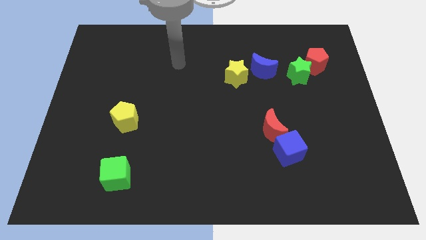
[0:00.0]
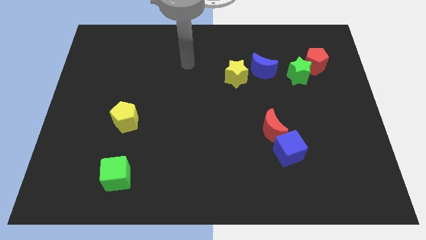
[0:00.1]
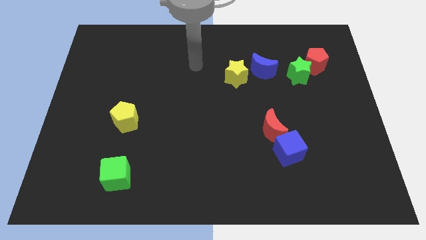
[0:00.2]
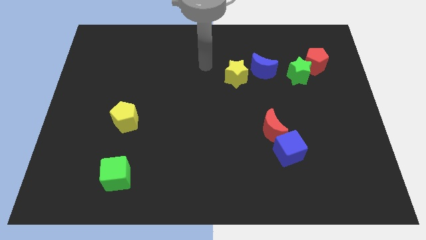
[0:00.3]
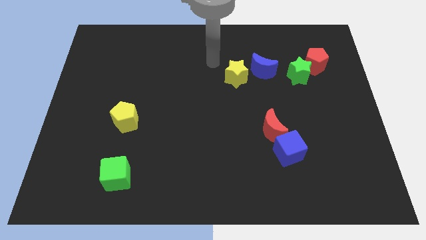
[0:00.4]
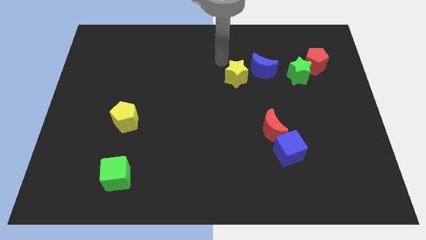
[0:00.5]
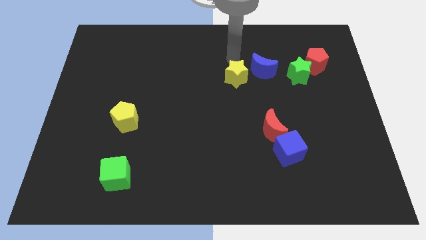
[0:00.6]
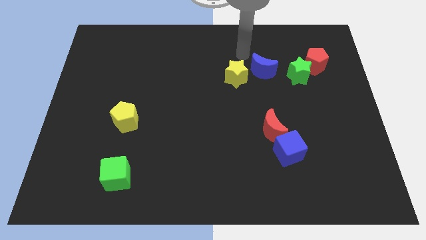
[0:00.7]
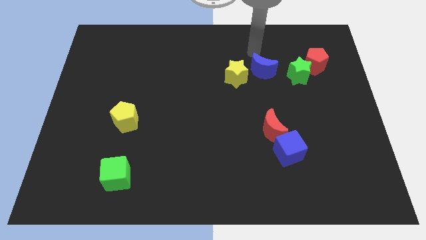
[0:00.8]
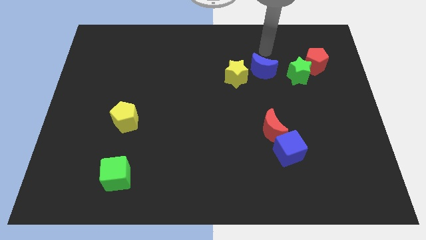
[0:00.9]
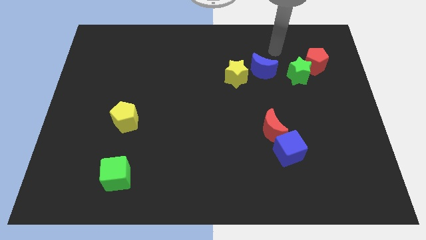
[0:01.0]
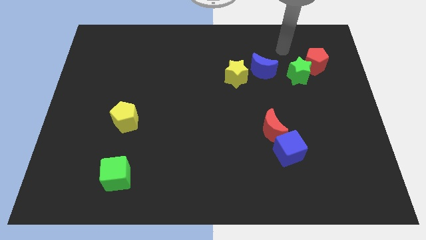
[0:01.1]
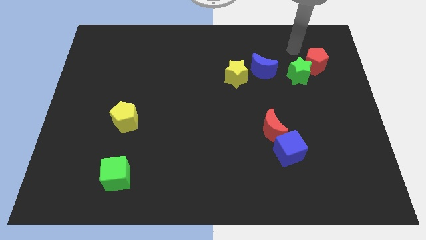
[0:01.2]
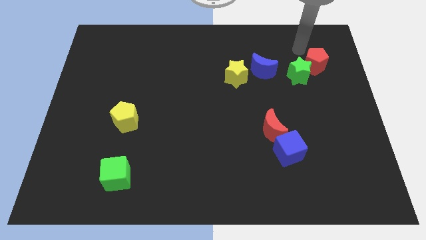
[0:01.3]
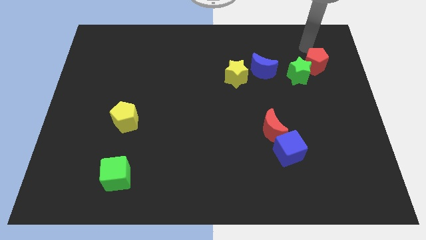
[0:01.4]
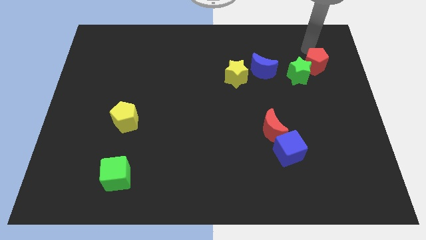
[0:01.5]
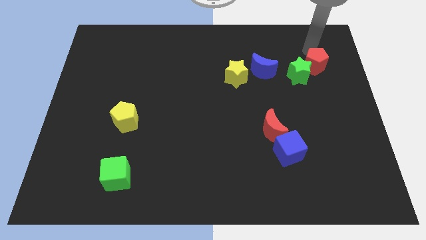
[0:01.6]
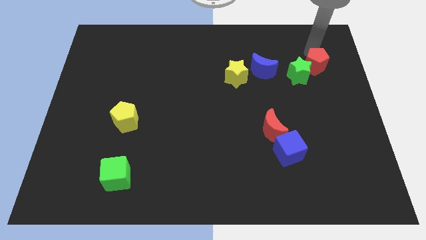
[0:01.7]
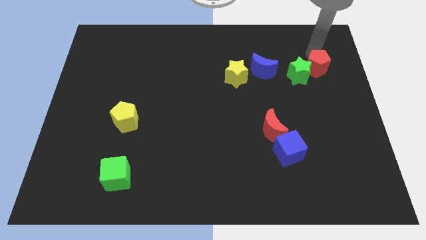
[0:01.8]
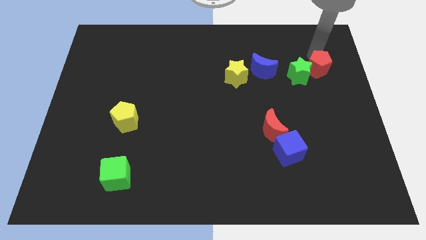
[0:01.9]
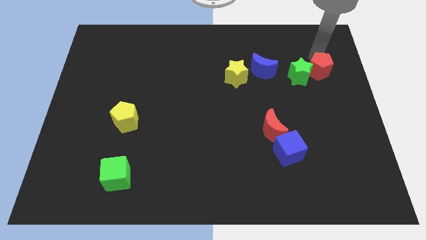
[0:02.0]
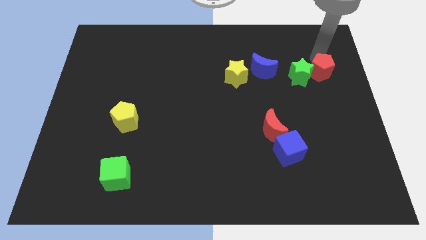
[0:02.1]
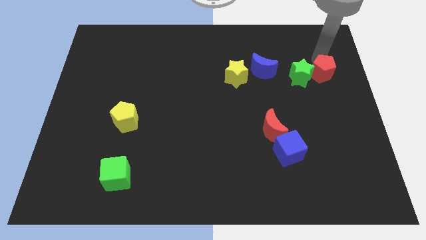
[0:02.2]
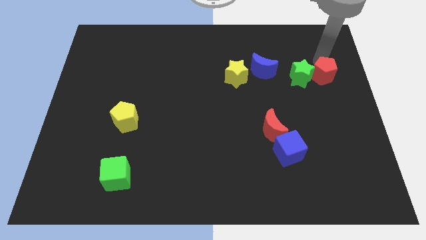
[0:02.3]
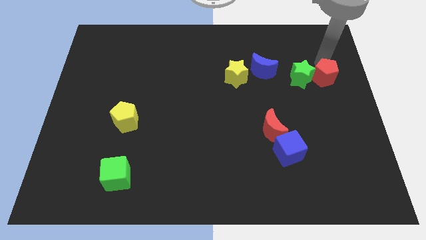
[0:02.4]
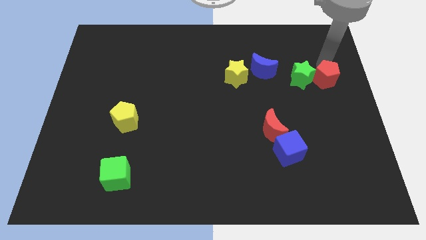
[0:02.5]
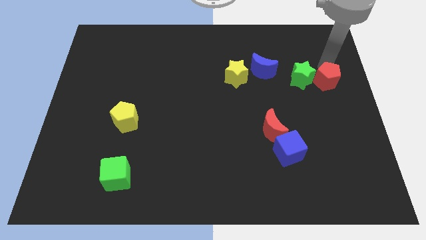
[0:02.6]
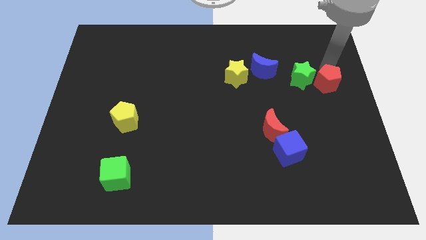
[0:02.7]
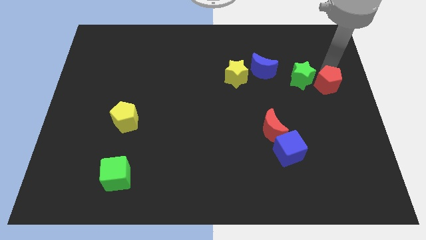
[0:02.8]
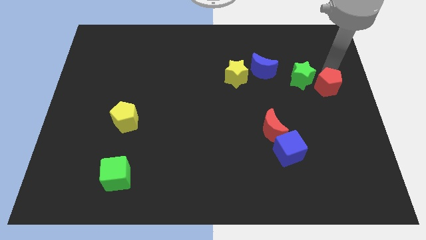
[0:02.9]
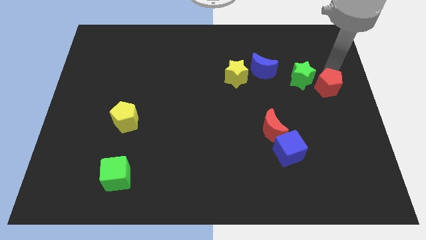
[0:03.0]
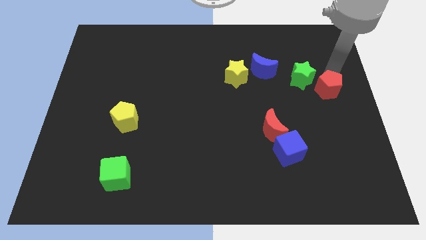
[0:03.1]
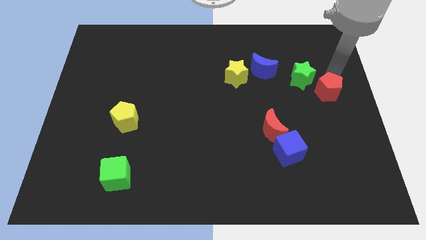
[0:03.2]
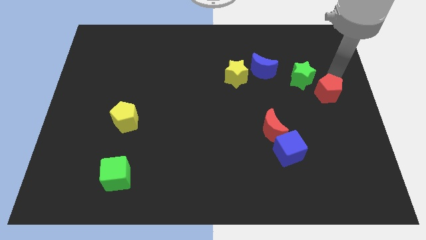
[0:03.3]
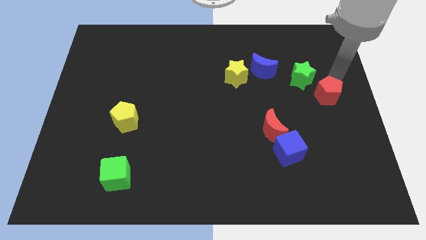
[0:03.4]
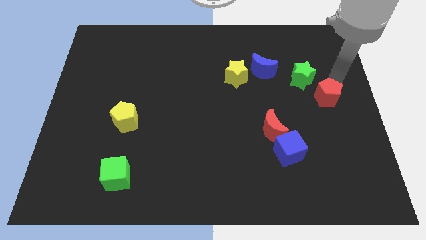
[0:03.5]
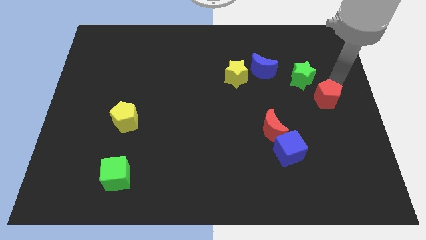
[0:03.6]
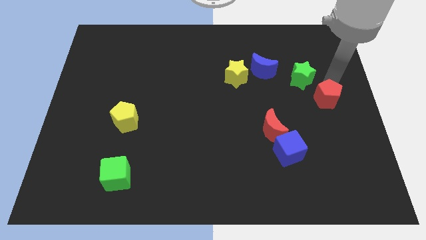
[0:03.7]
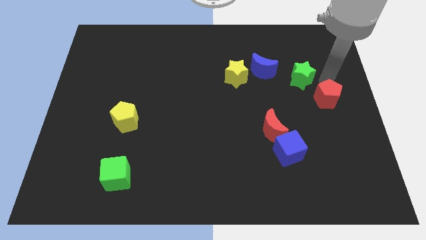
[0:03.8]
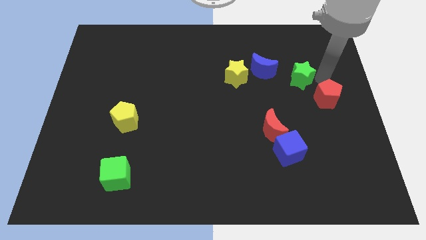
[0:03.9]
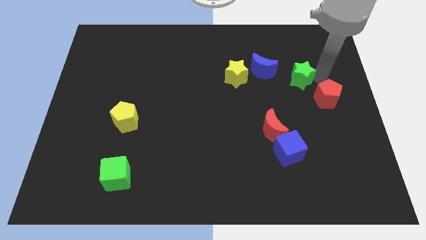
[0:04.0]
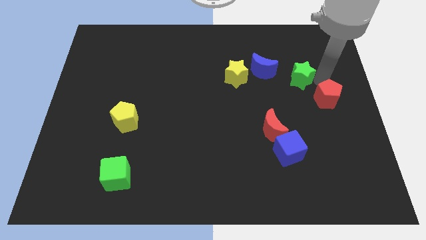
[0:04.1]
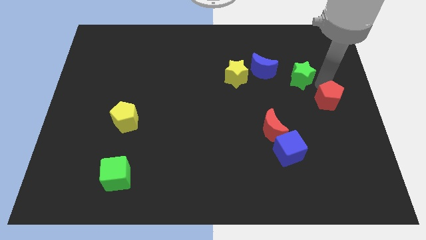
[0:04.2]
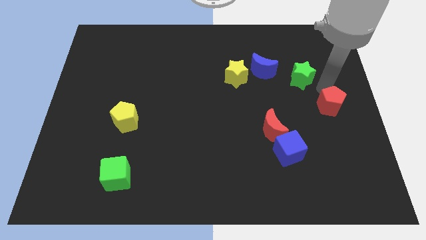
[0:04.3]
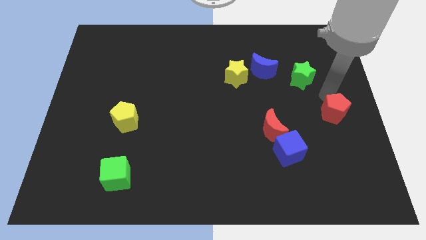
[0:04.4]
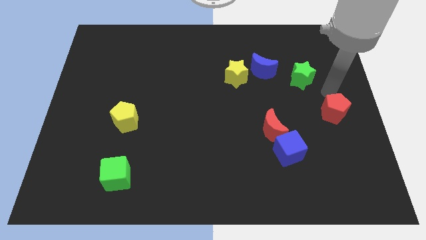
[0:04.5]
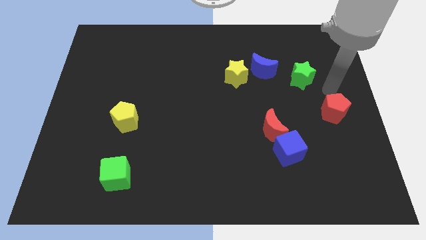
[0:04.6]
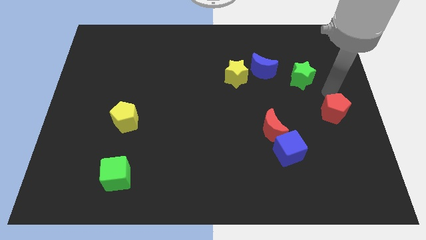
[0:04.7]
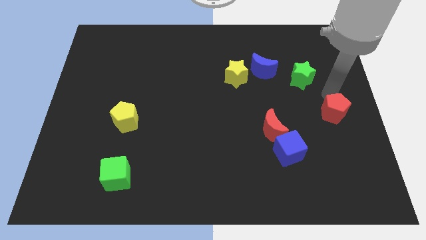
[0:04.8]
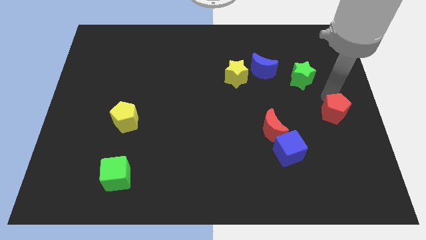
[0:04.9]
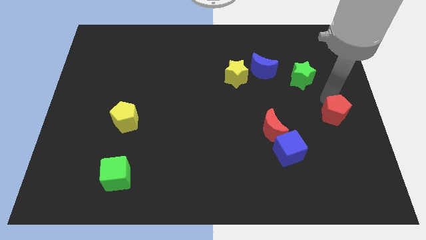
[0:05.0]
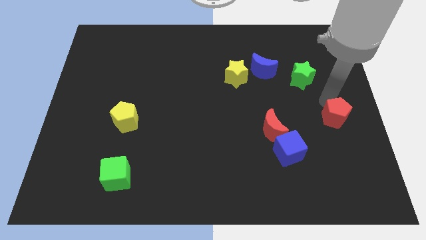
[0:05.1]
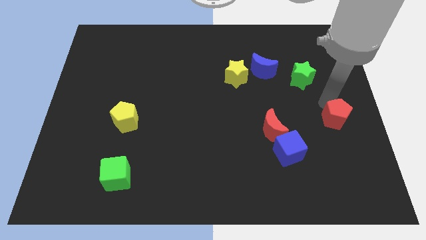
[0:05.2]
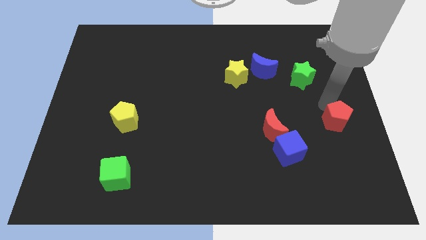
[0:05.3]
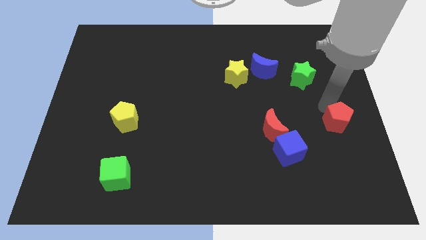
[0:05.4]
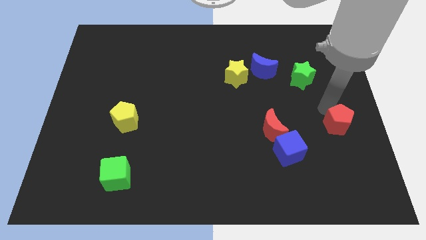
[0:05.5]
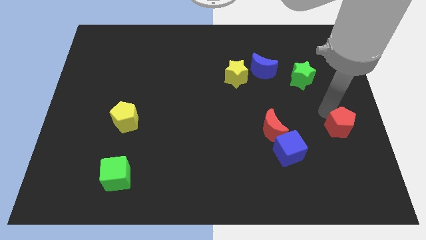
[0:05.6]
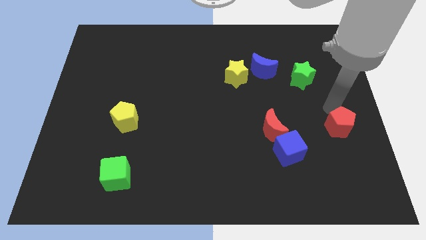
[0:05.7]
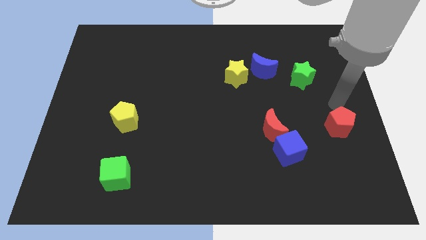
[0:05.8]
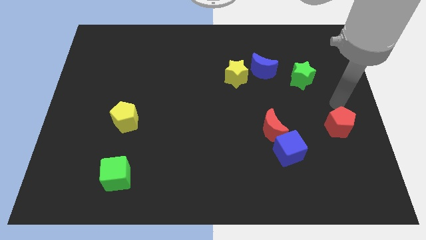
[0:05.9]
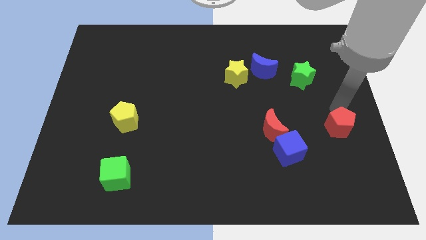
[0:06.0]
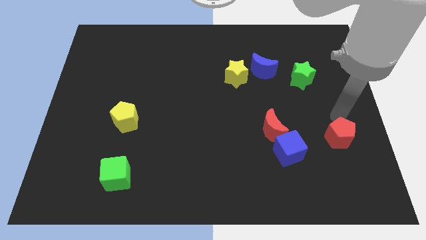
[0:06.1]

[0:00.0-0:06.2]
slide the red pentagon down

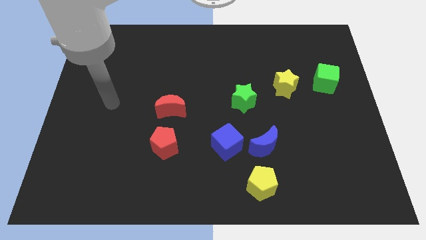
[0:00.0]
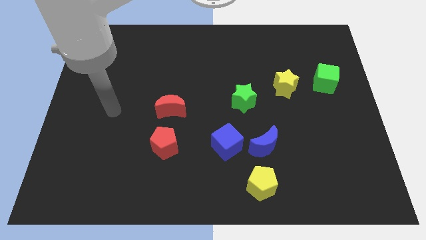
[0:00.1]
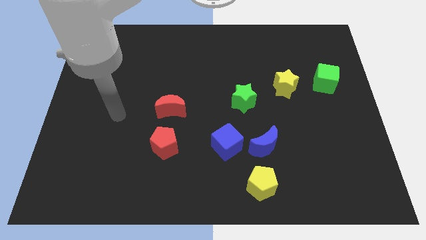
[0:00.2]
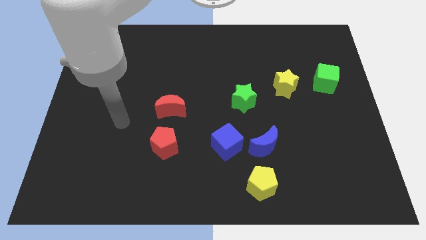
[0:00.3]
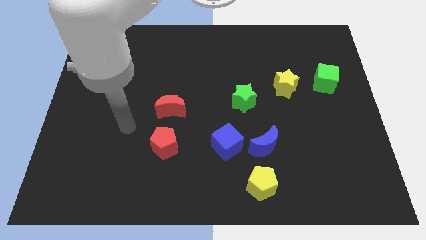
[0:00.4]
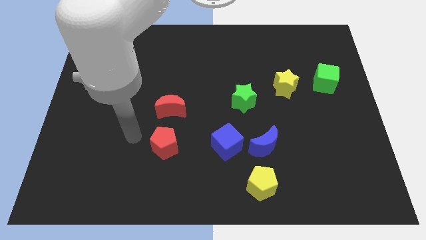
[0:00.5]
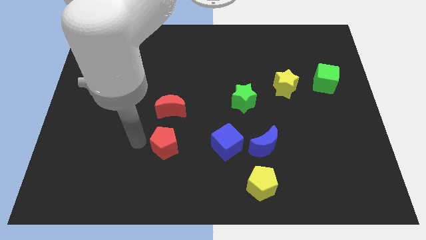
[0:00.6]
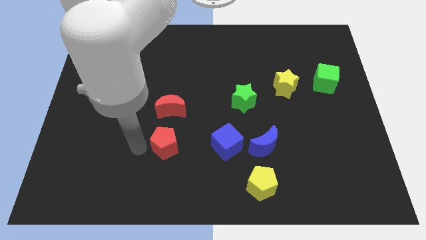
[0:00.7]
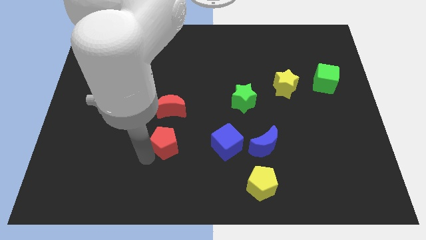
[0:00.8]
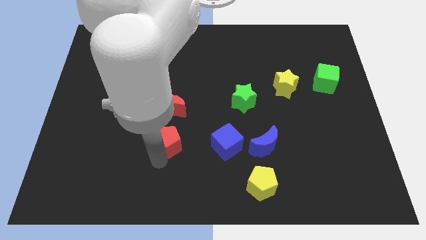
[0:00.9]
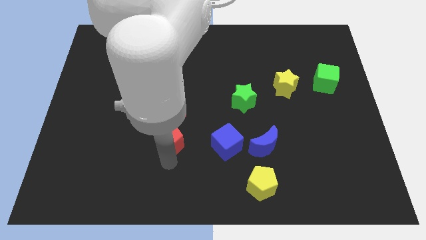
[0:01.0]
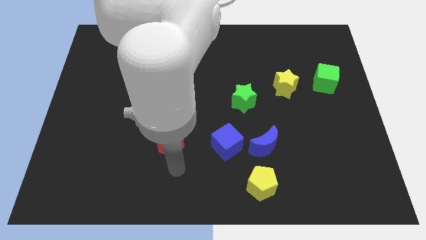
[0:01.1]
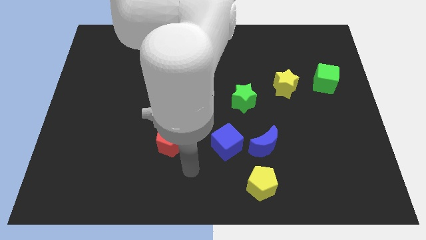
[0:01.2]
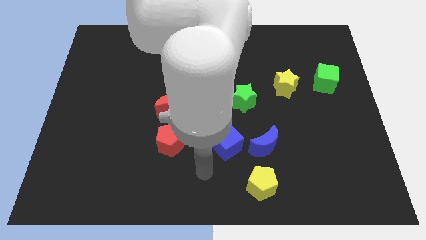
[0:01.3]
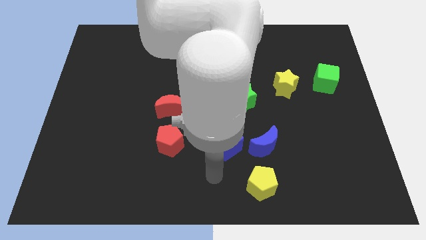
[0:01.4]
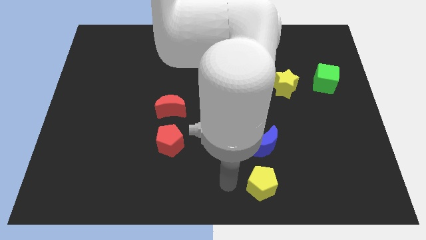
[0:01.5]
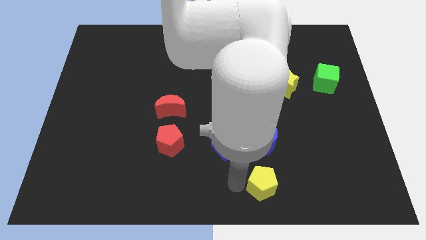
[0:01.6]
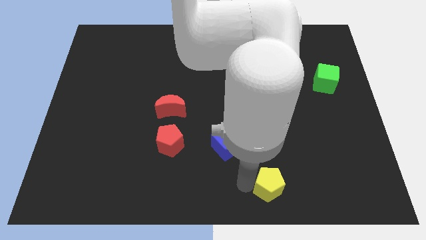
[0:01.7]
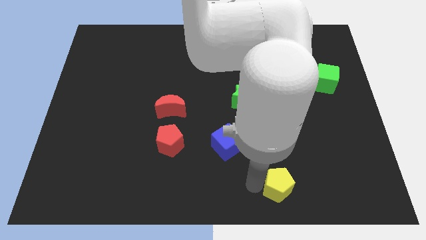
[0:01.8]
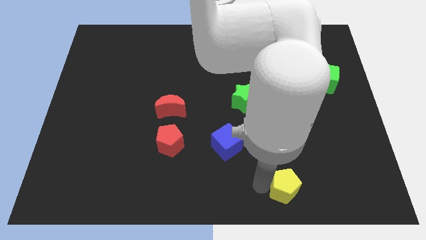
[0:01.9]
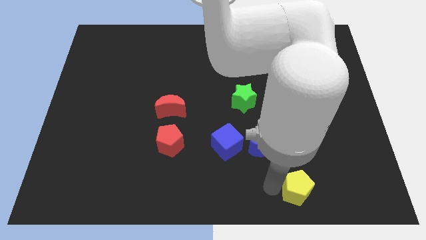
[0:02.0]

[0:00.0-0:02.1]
slide the yellow pentagon right a little bit
